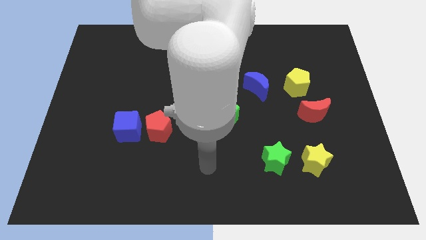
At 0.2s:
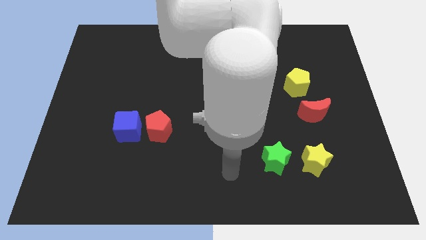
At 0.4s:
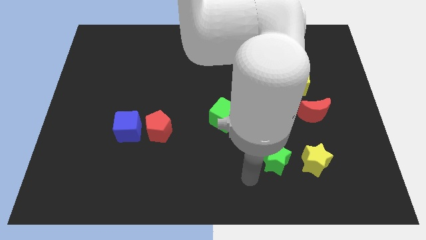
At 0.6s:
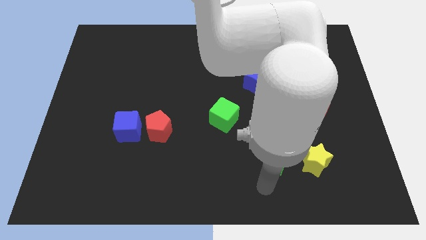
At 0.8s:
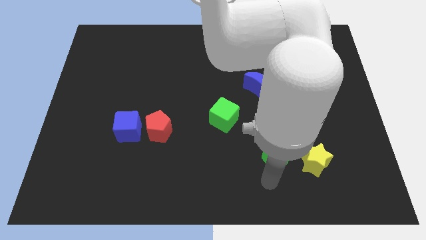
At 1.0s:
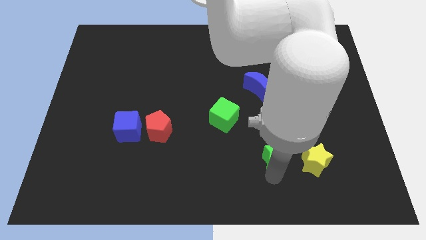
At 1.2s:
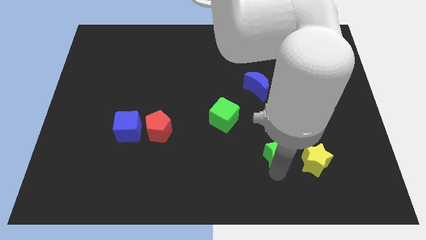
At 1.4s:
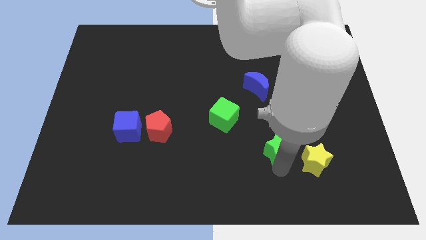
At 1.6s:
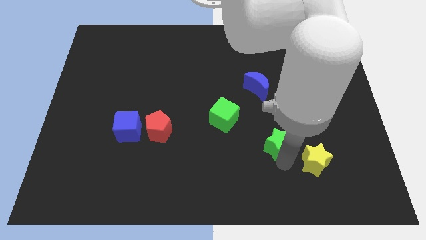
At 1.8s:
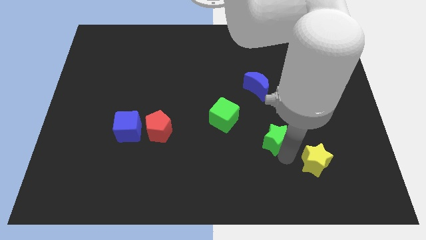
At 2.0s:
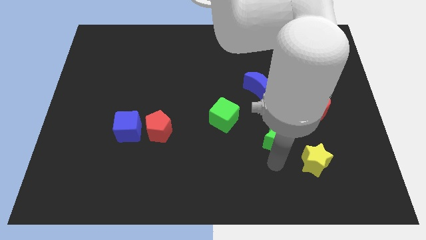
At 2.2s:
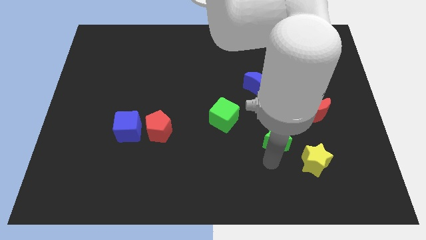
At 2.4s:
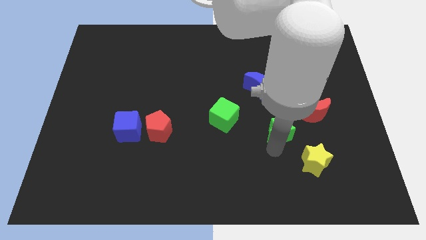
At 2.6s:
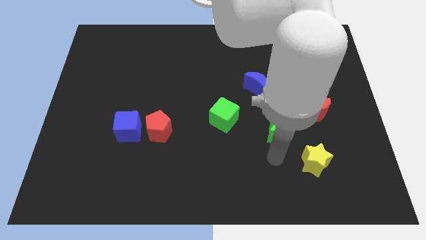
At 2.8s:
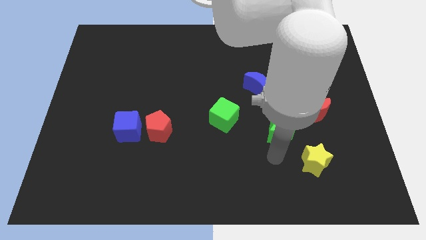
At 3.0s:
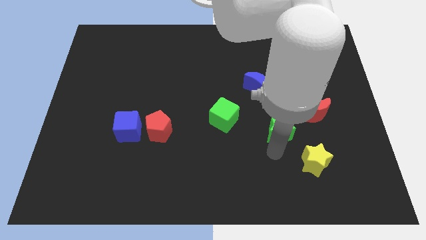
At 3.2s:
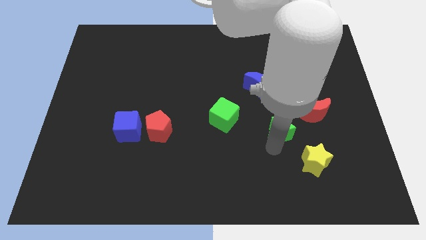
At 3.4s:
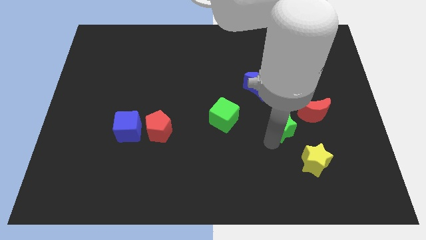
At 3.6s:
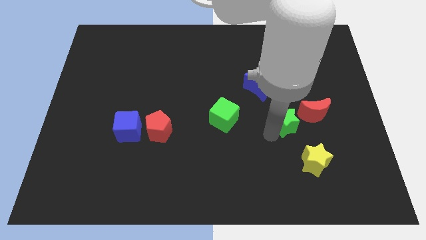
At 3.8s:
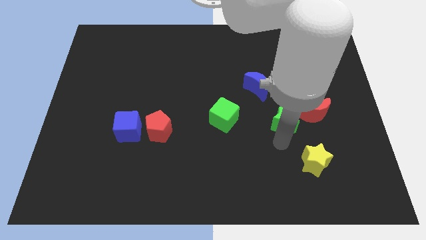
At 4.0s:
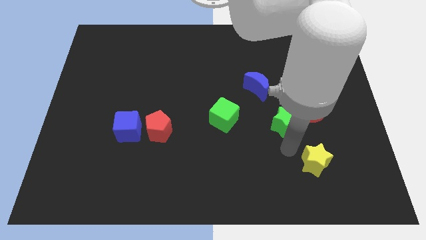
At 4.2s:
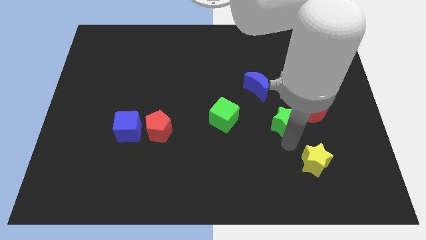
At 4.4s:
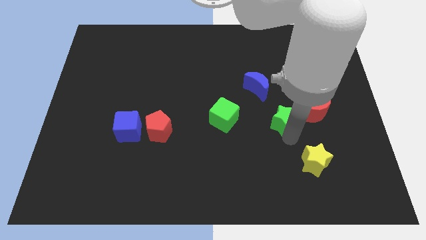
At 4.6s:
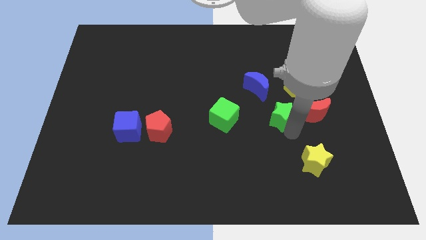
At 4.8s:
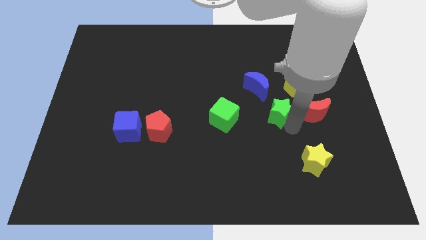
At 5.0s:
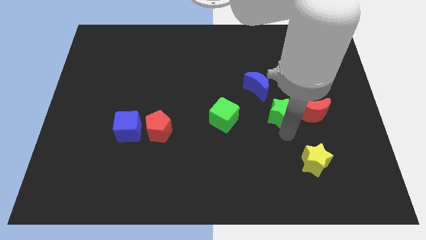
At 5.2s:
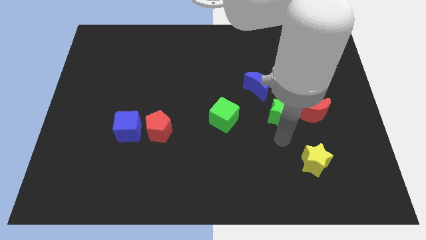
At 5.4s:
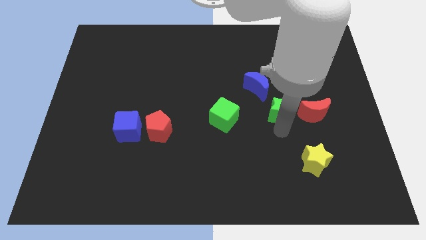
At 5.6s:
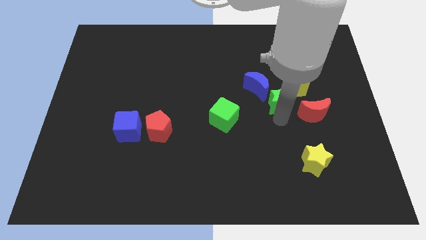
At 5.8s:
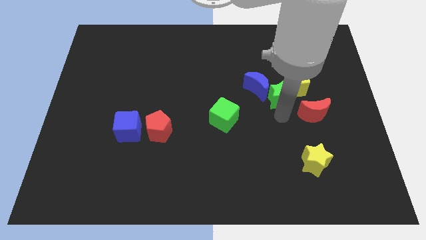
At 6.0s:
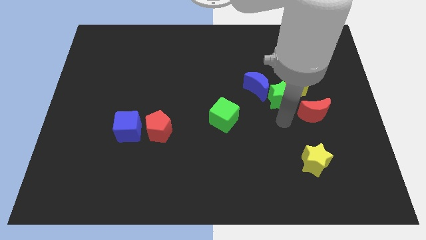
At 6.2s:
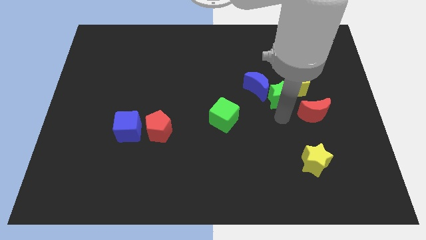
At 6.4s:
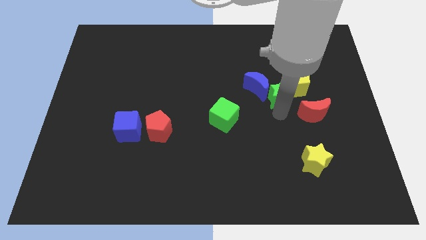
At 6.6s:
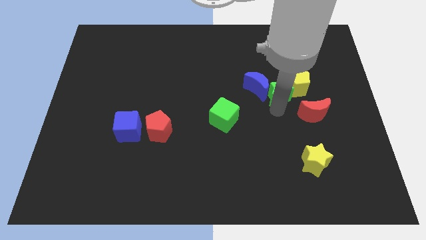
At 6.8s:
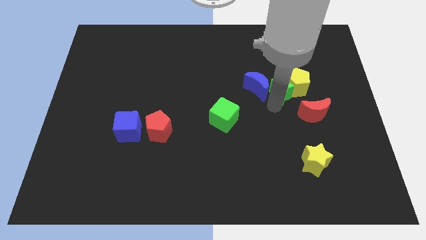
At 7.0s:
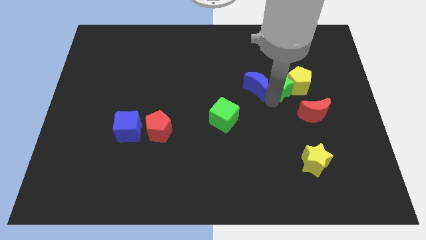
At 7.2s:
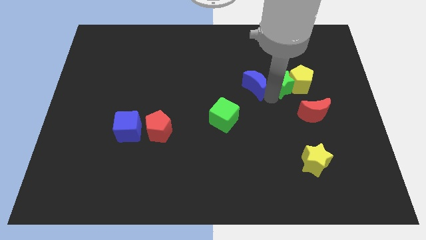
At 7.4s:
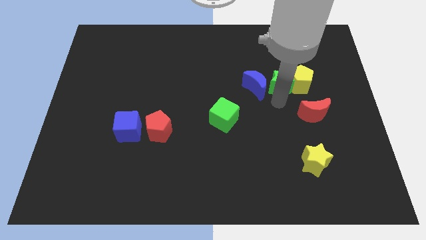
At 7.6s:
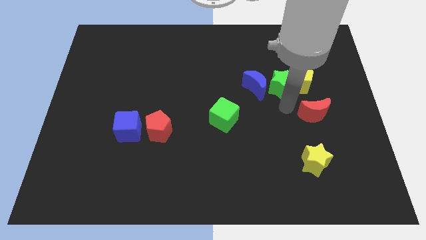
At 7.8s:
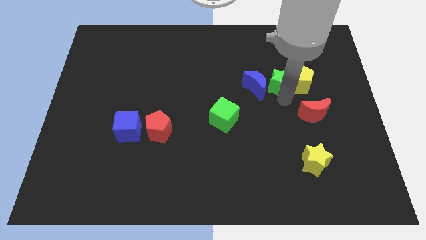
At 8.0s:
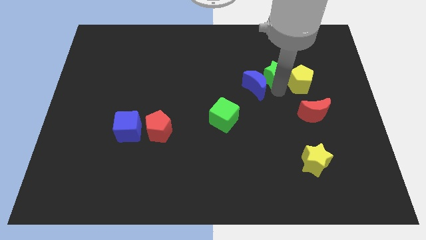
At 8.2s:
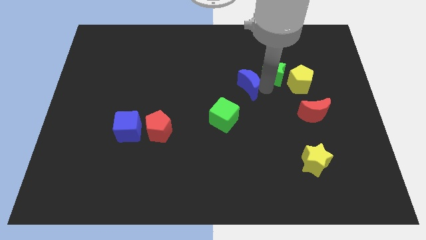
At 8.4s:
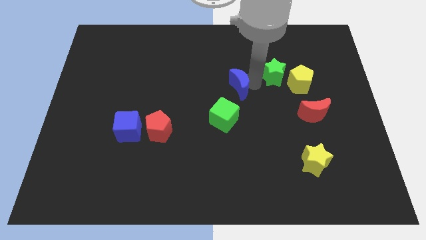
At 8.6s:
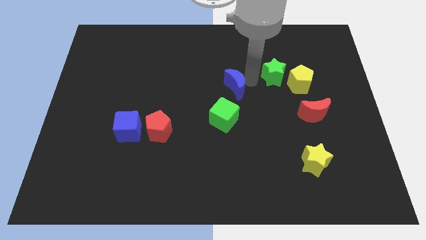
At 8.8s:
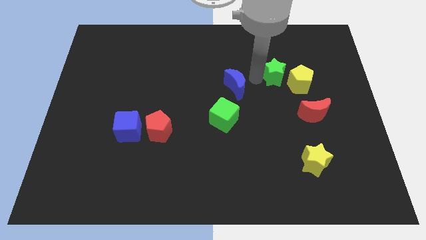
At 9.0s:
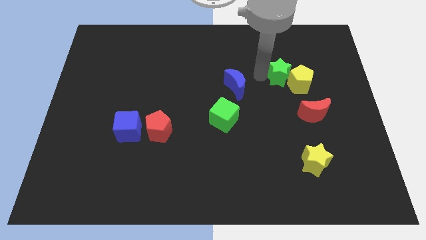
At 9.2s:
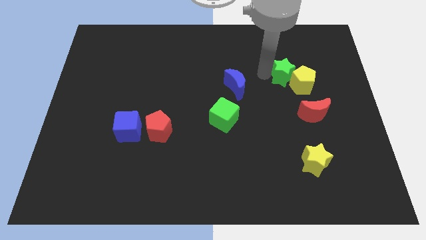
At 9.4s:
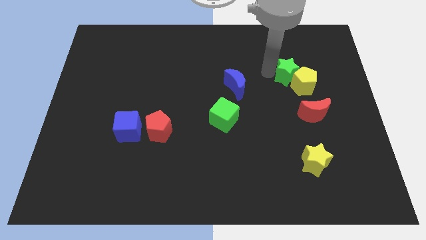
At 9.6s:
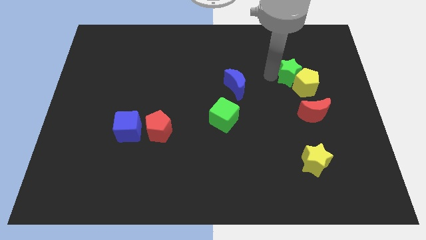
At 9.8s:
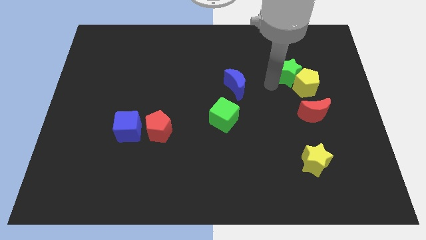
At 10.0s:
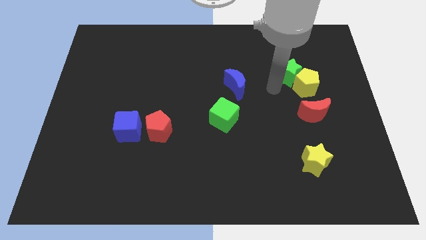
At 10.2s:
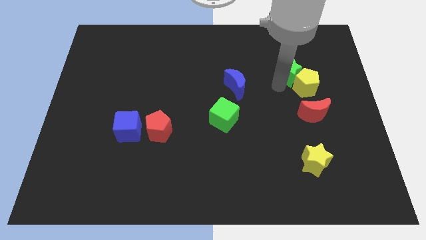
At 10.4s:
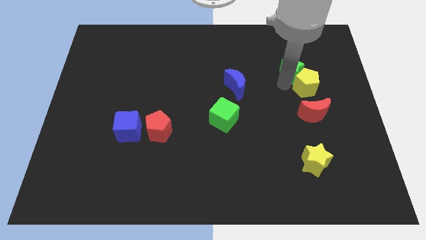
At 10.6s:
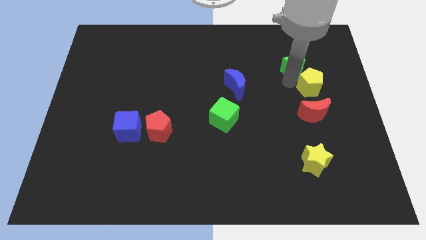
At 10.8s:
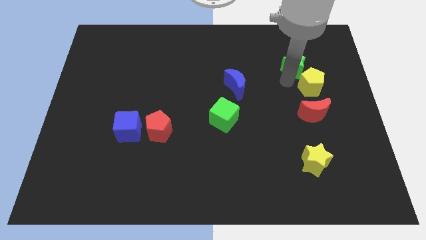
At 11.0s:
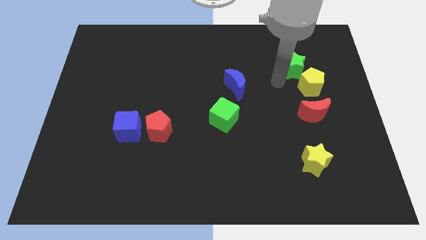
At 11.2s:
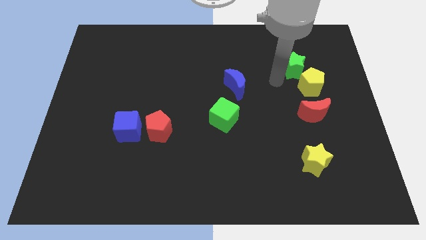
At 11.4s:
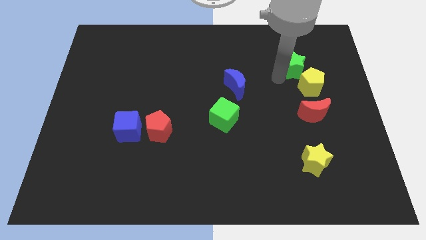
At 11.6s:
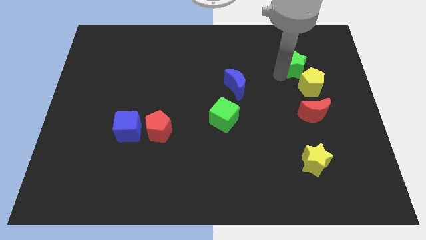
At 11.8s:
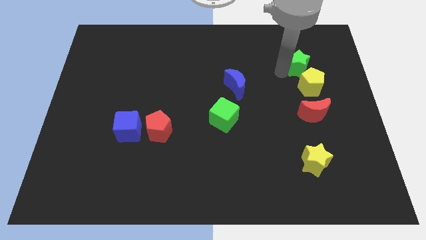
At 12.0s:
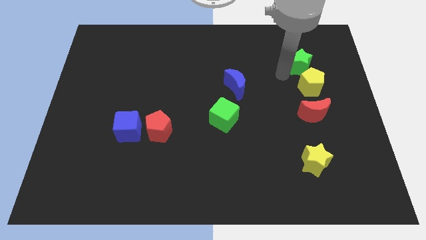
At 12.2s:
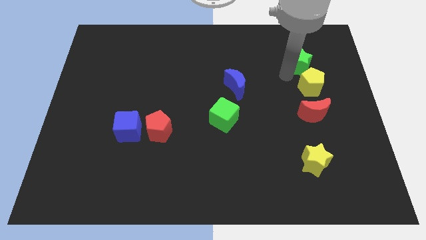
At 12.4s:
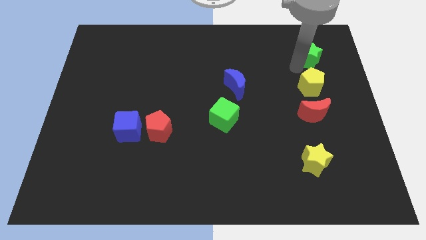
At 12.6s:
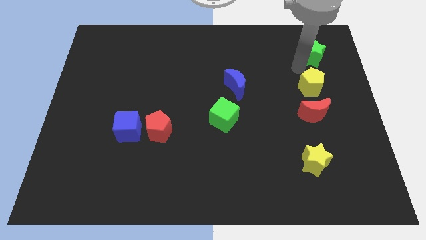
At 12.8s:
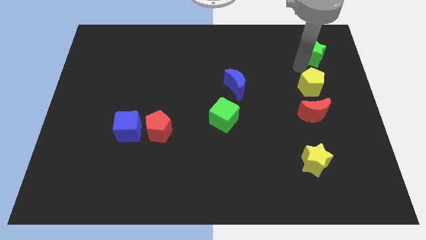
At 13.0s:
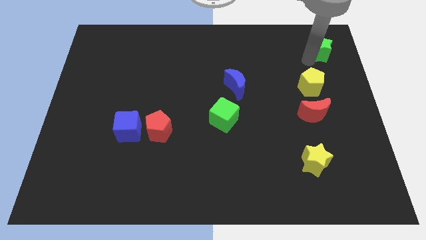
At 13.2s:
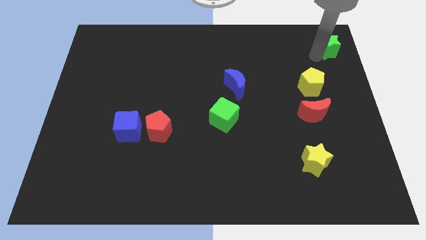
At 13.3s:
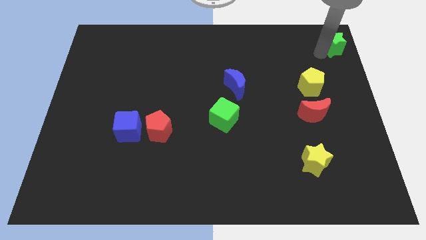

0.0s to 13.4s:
slide the green star to the top right

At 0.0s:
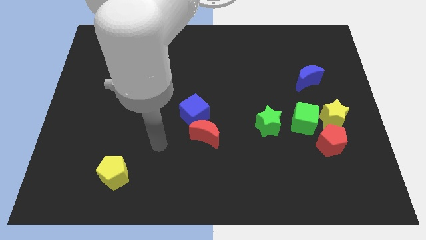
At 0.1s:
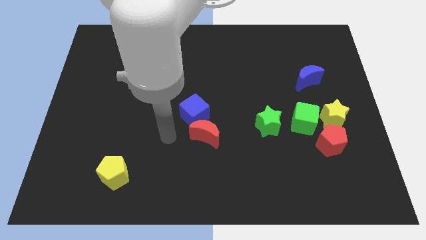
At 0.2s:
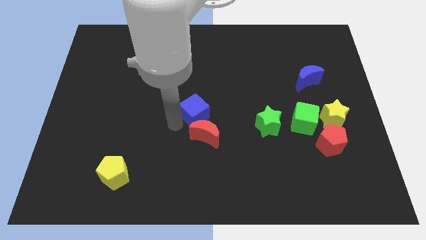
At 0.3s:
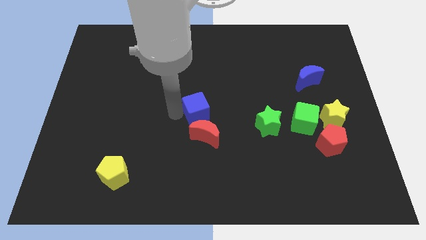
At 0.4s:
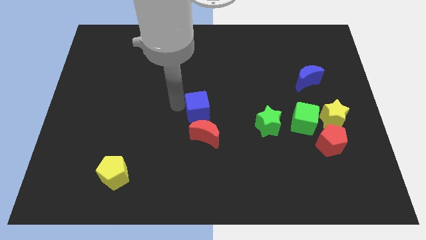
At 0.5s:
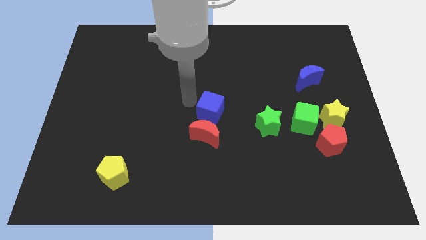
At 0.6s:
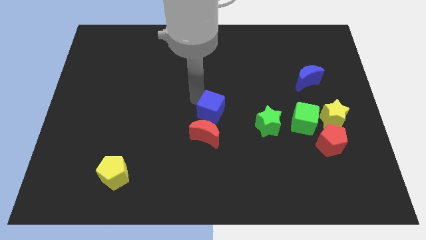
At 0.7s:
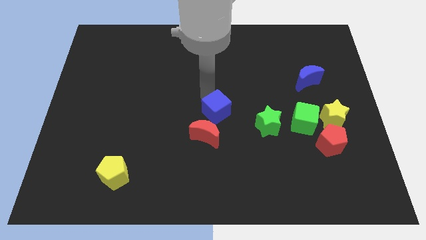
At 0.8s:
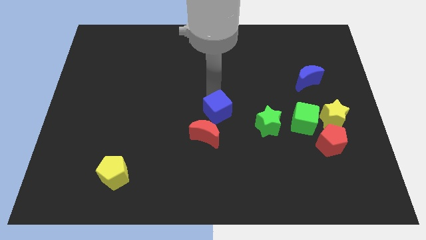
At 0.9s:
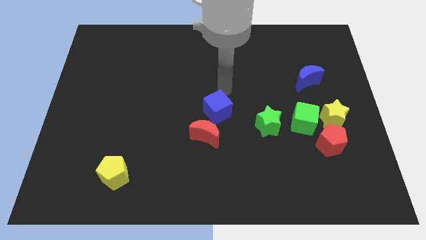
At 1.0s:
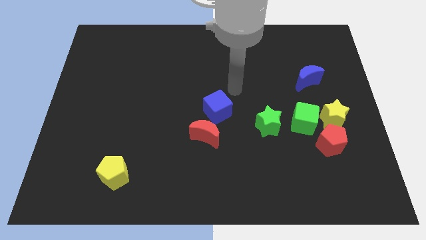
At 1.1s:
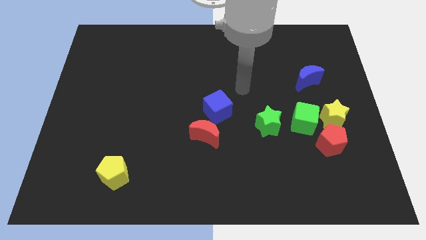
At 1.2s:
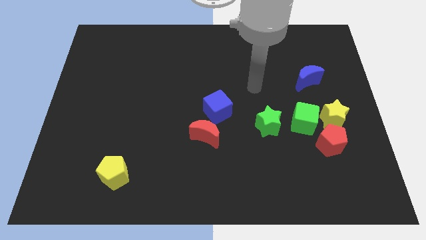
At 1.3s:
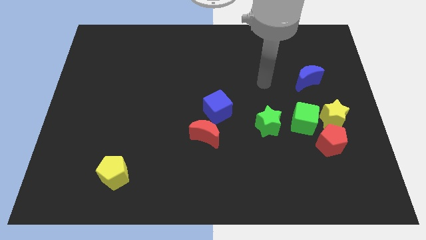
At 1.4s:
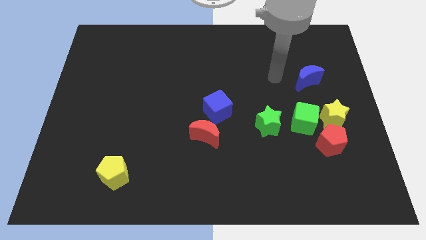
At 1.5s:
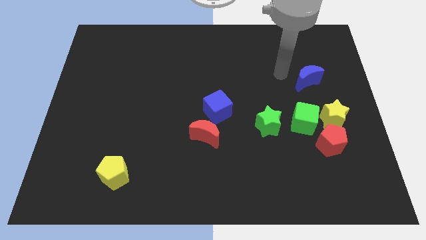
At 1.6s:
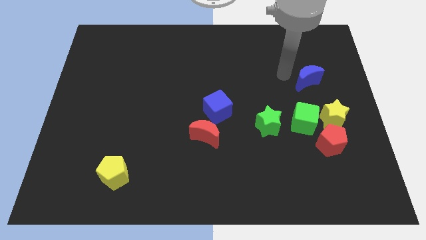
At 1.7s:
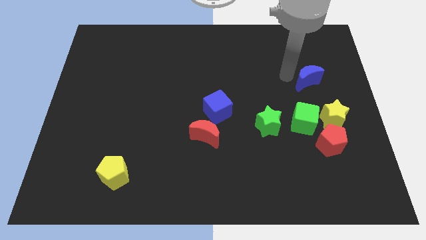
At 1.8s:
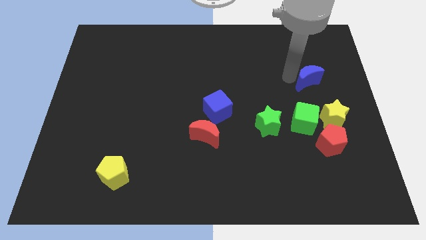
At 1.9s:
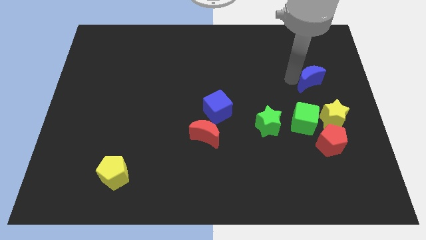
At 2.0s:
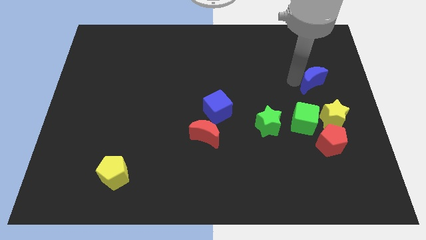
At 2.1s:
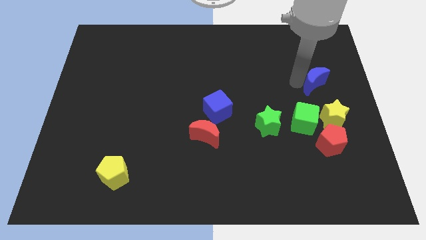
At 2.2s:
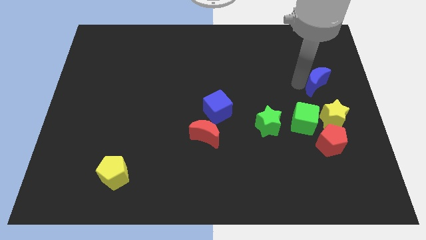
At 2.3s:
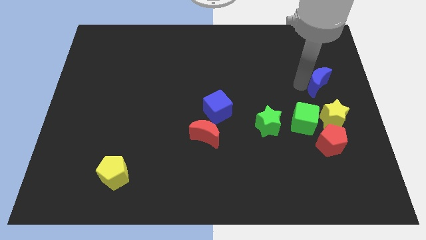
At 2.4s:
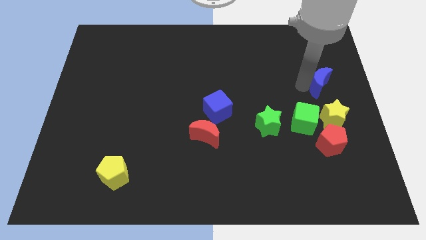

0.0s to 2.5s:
move the blue moon to the center right
